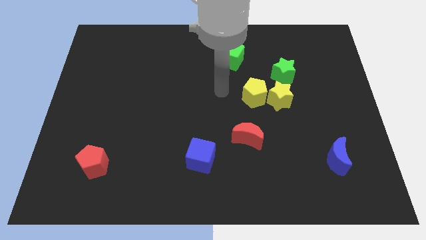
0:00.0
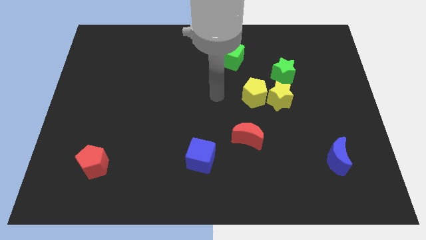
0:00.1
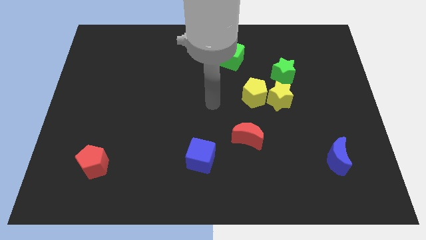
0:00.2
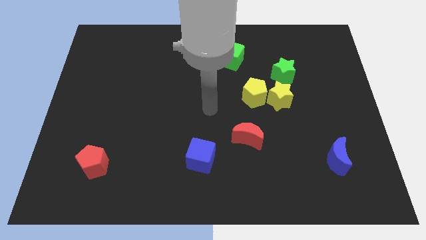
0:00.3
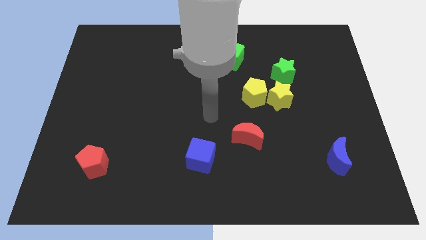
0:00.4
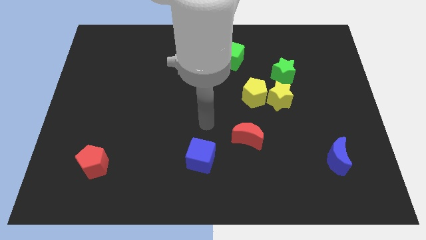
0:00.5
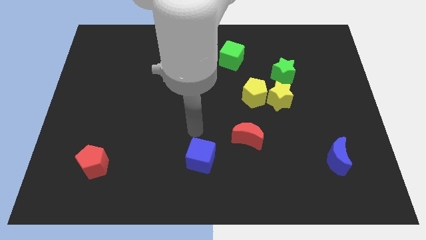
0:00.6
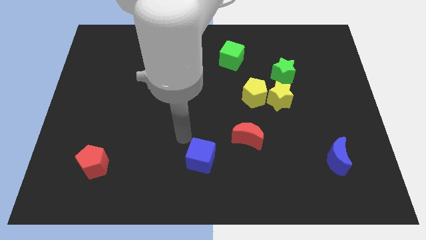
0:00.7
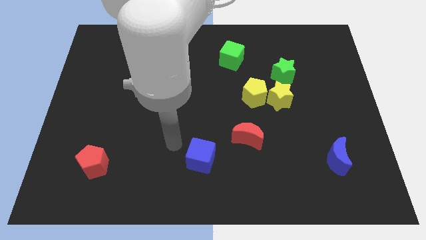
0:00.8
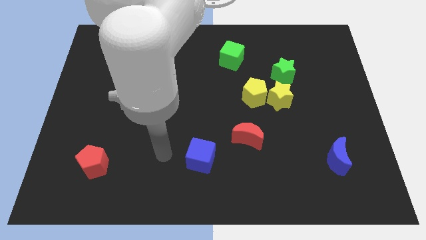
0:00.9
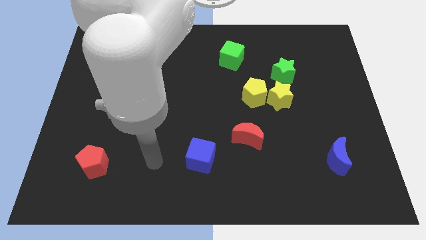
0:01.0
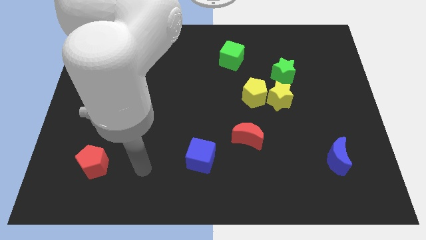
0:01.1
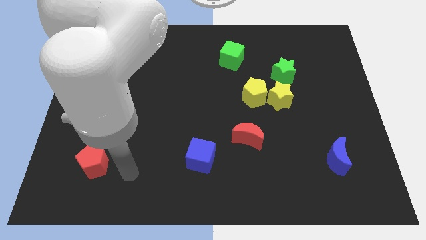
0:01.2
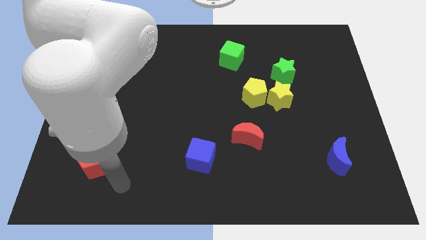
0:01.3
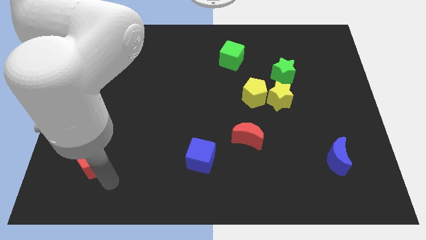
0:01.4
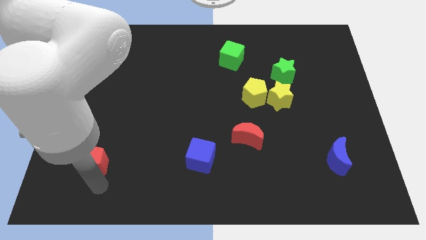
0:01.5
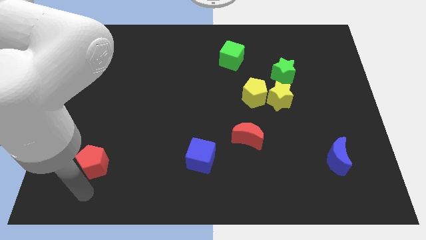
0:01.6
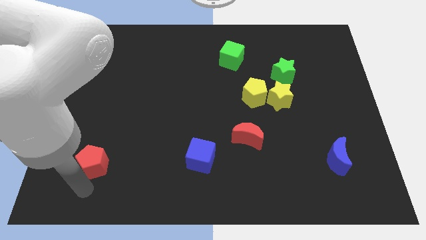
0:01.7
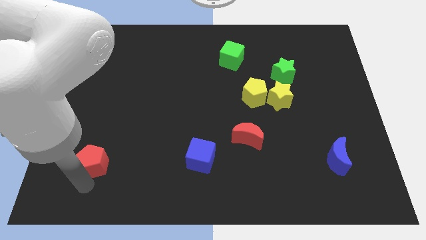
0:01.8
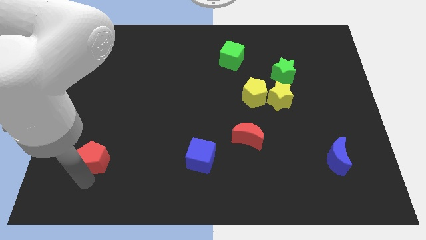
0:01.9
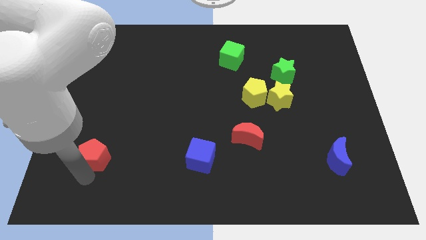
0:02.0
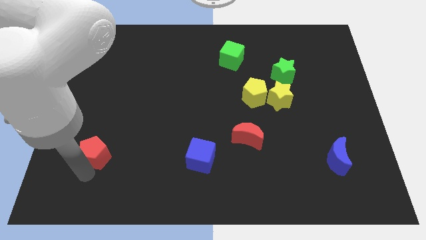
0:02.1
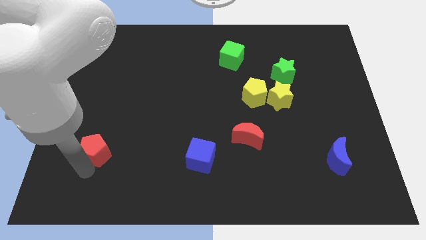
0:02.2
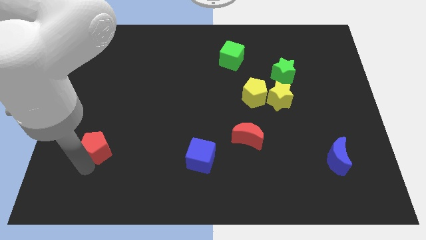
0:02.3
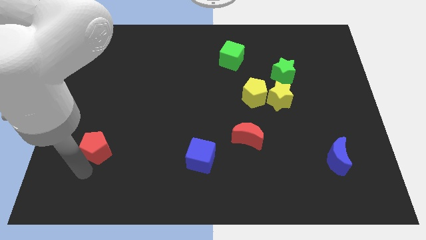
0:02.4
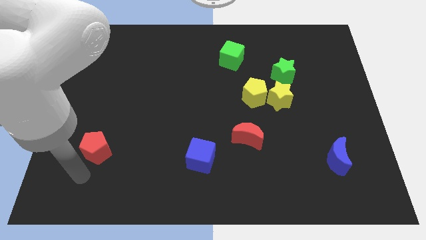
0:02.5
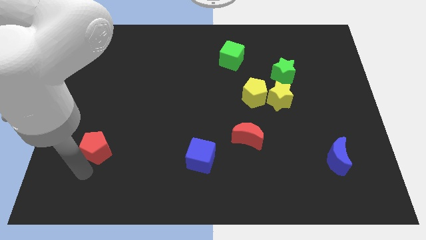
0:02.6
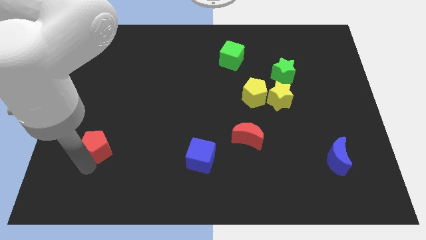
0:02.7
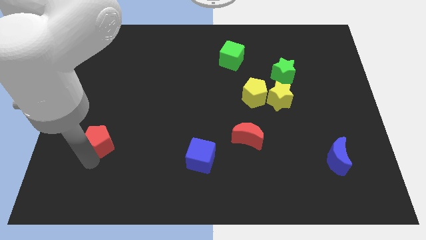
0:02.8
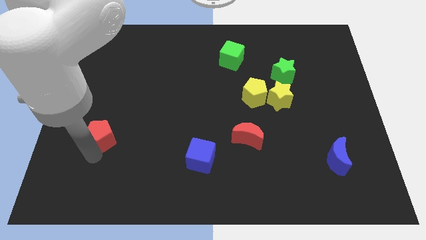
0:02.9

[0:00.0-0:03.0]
slightly move the red pentagon up

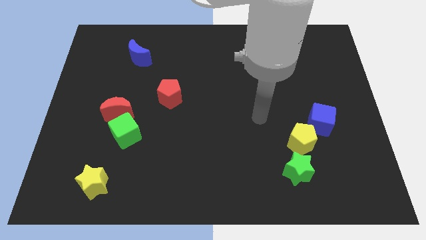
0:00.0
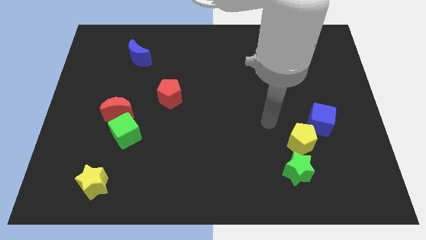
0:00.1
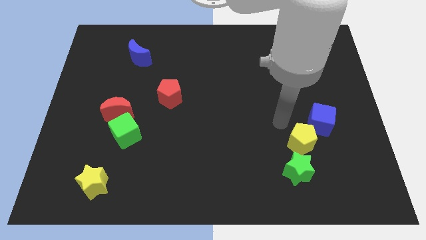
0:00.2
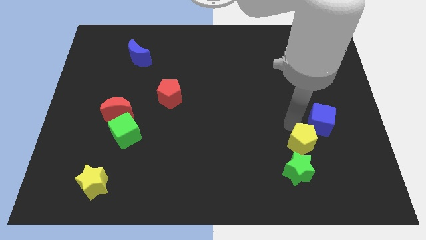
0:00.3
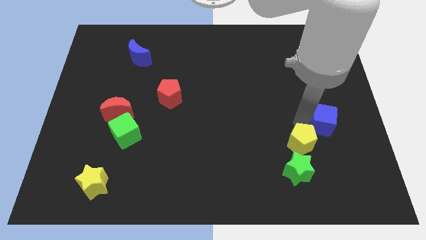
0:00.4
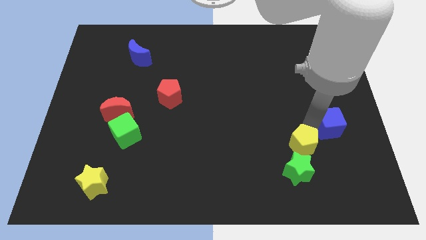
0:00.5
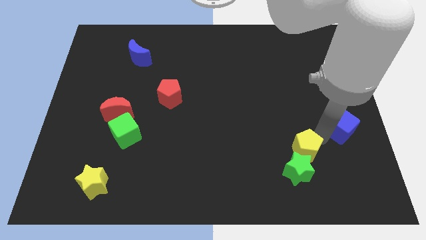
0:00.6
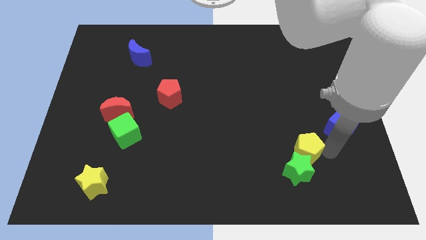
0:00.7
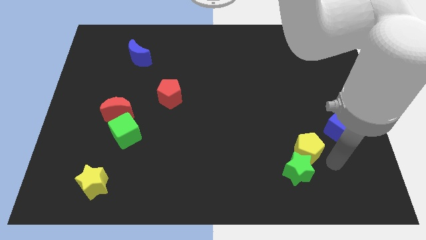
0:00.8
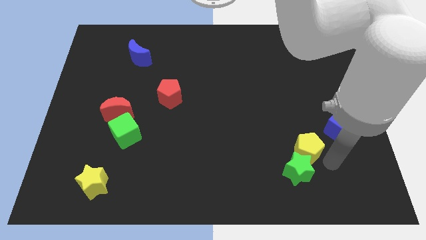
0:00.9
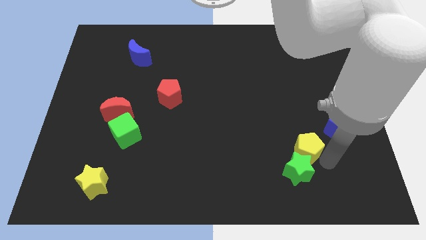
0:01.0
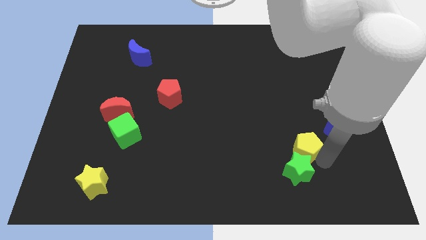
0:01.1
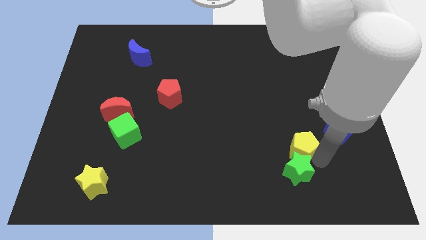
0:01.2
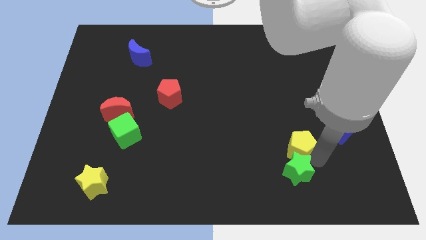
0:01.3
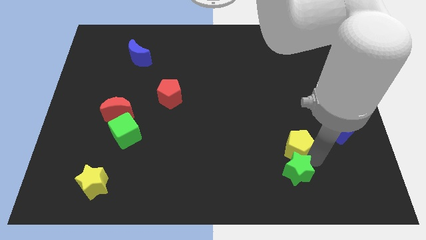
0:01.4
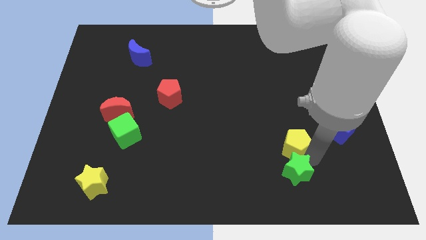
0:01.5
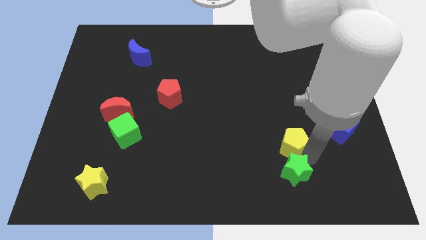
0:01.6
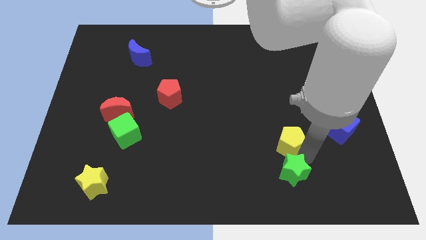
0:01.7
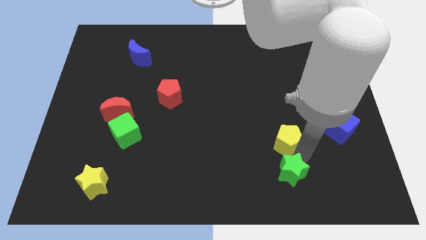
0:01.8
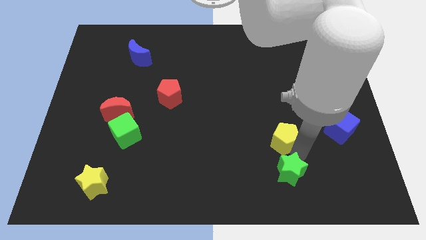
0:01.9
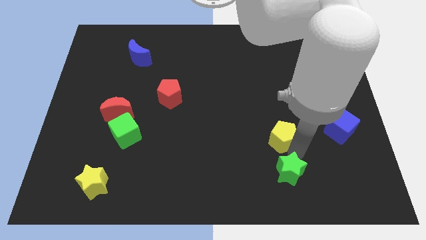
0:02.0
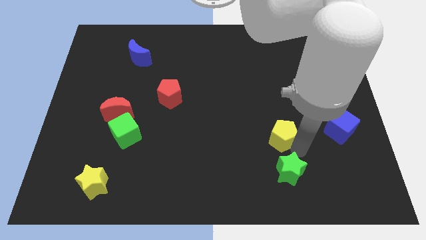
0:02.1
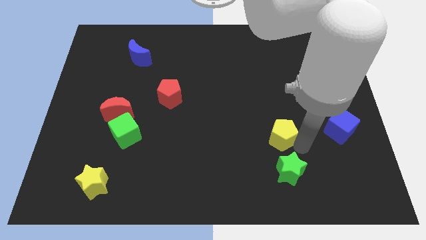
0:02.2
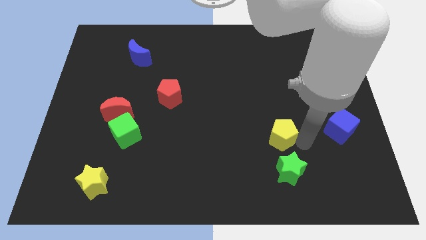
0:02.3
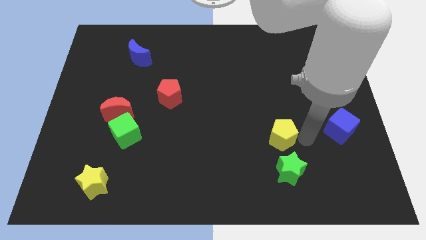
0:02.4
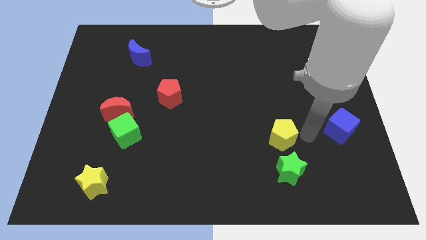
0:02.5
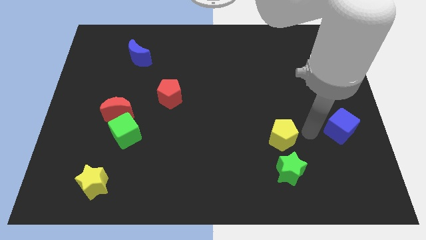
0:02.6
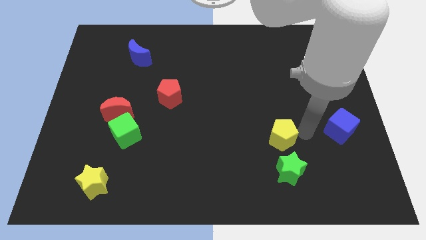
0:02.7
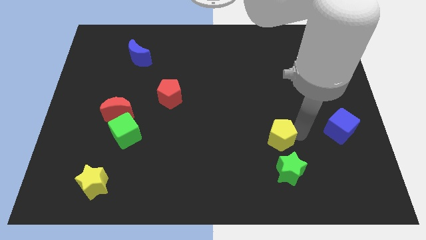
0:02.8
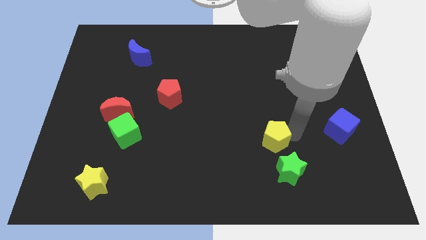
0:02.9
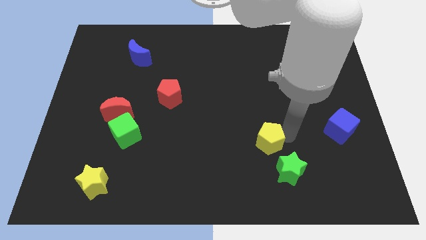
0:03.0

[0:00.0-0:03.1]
slightly move the yellow pentagon left

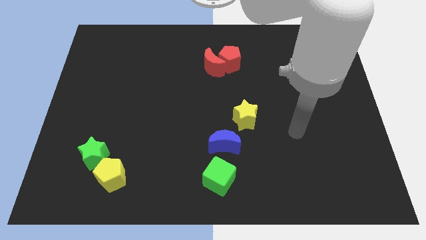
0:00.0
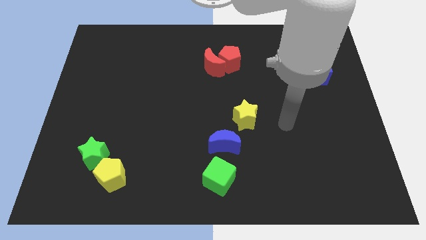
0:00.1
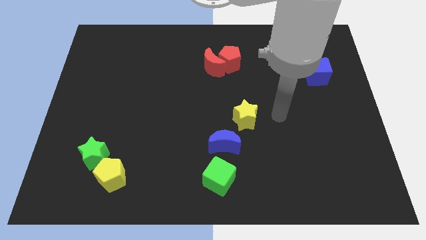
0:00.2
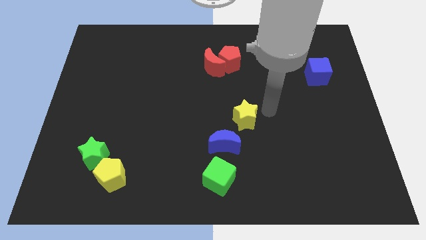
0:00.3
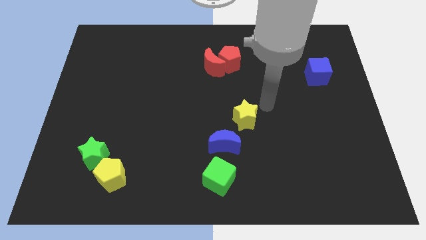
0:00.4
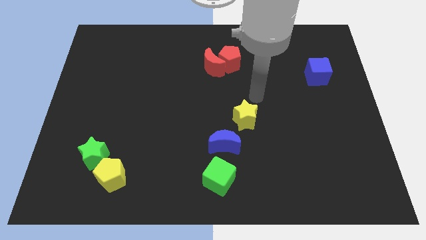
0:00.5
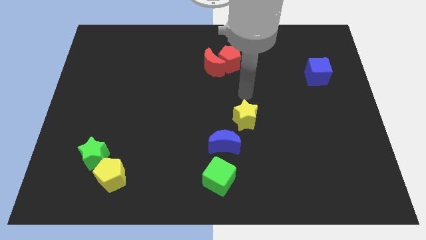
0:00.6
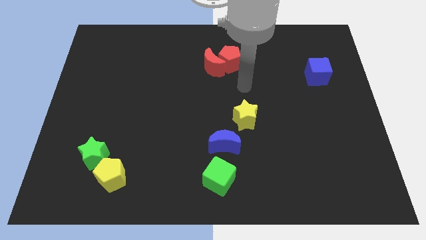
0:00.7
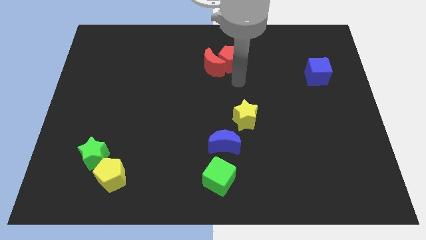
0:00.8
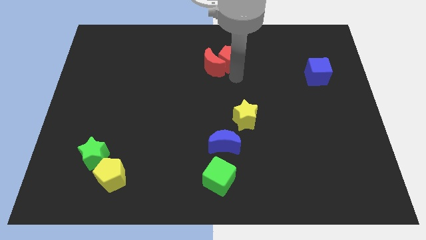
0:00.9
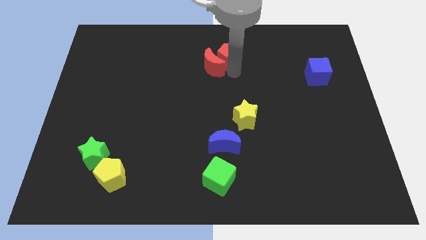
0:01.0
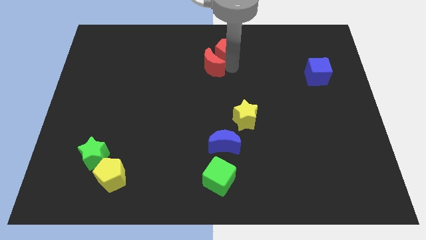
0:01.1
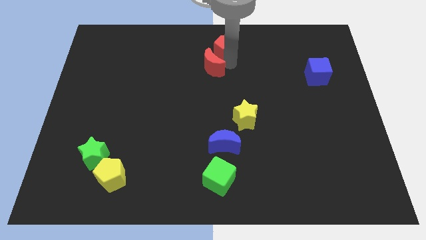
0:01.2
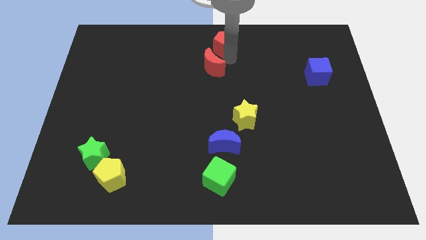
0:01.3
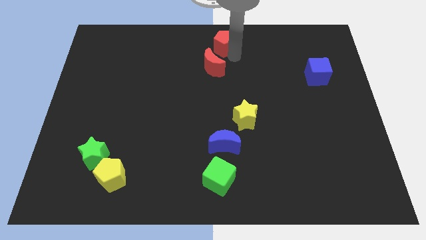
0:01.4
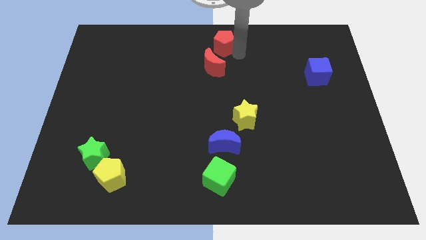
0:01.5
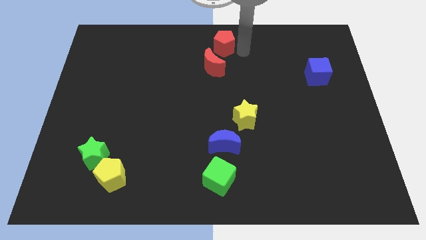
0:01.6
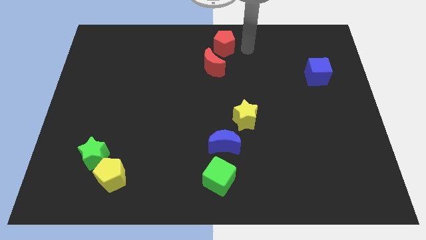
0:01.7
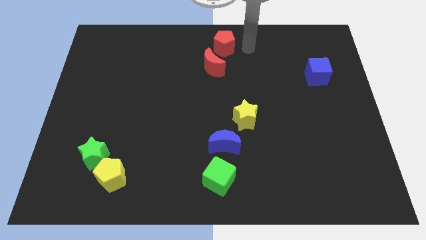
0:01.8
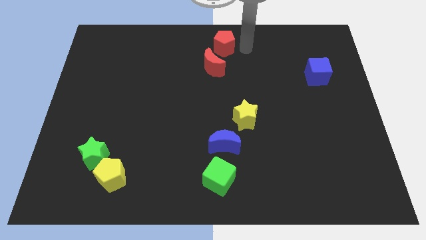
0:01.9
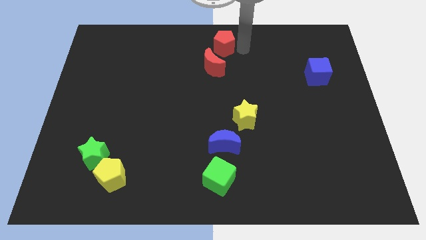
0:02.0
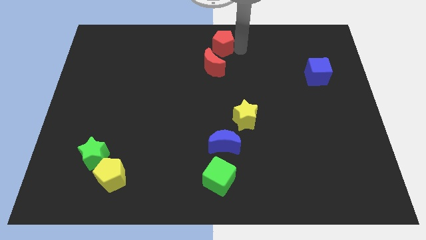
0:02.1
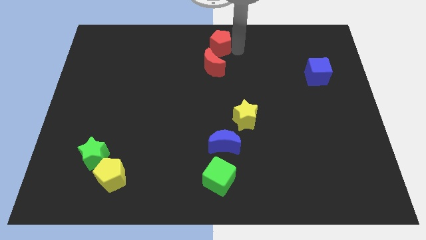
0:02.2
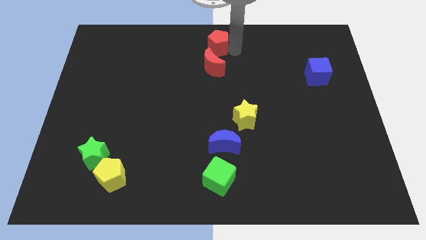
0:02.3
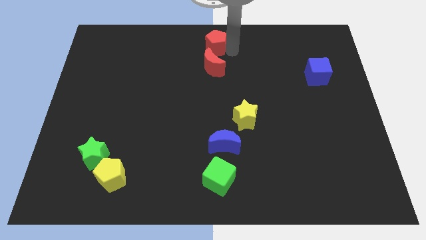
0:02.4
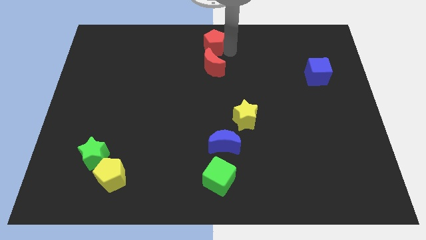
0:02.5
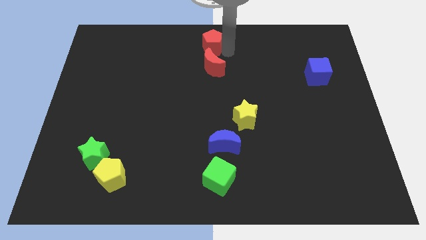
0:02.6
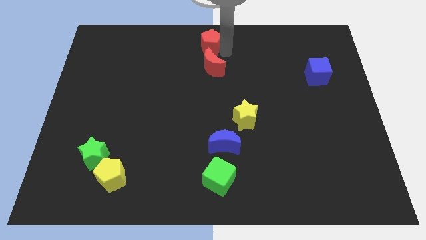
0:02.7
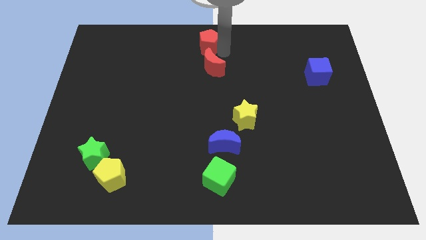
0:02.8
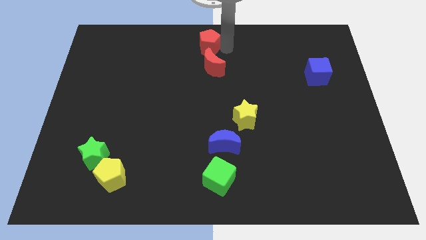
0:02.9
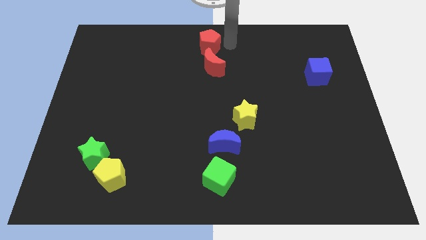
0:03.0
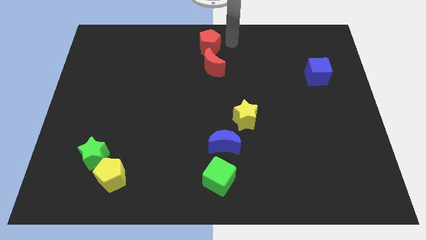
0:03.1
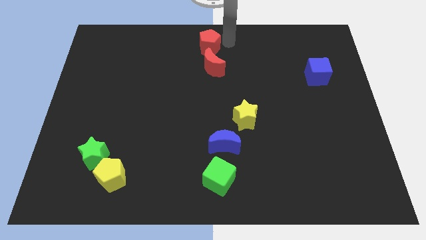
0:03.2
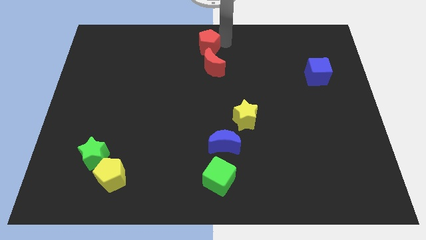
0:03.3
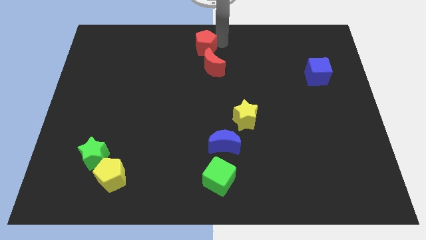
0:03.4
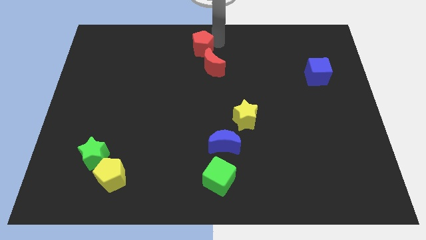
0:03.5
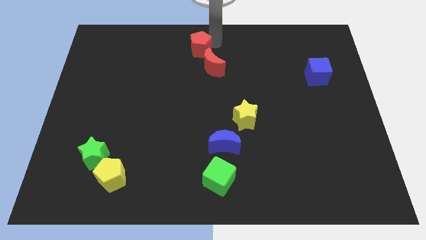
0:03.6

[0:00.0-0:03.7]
slightly slide the red pentagon to the left
